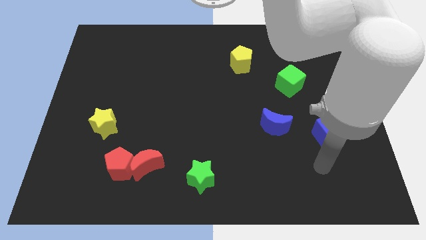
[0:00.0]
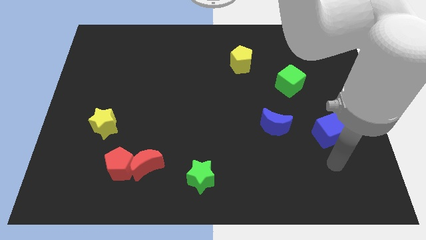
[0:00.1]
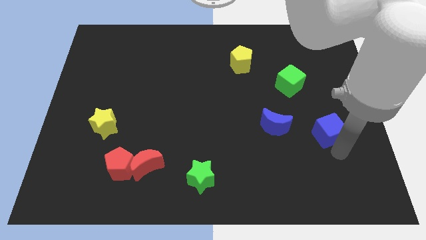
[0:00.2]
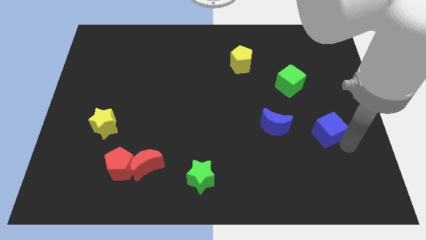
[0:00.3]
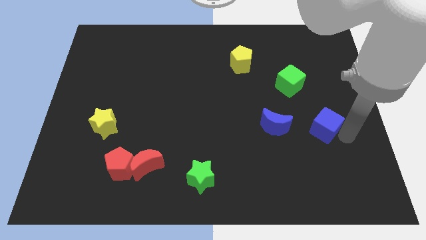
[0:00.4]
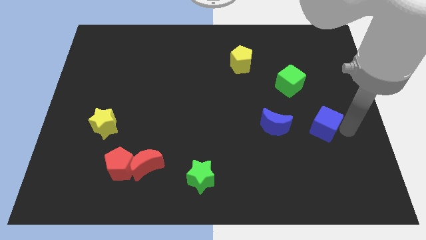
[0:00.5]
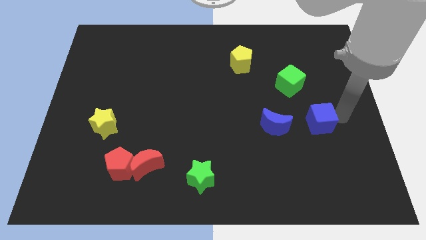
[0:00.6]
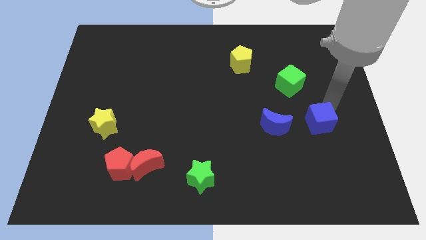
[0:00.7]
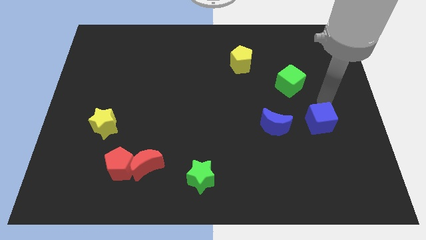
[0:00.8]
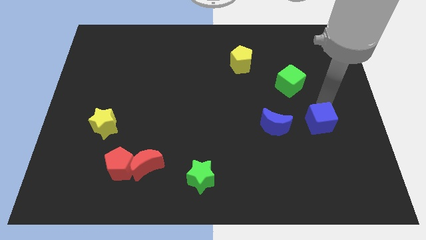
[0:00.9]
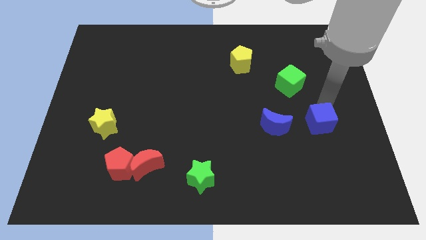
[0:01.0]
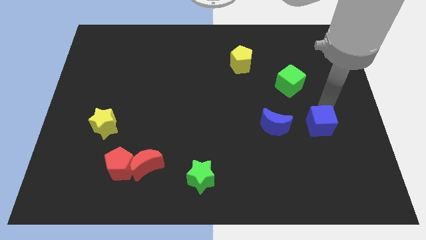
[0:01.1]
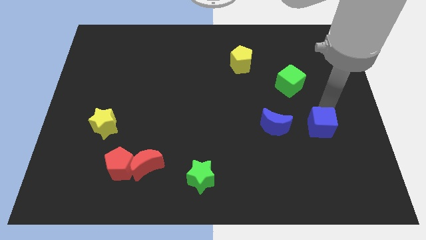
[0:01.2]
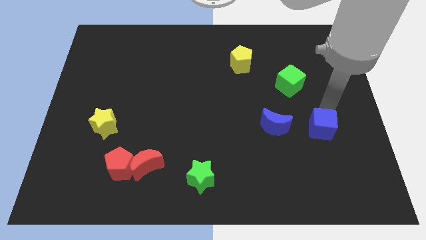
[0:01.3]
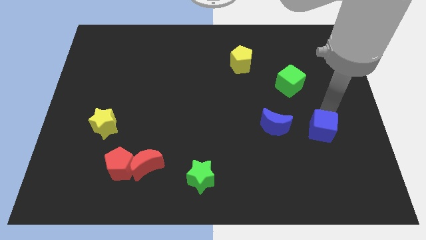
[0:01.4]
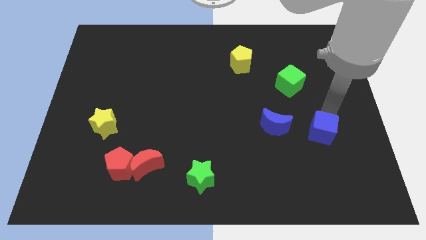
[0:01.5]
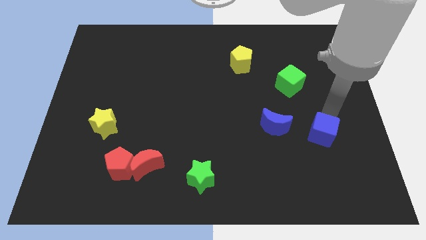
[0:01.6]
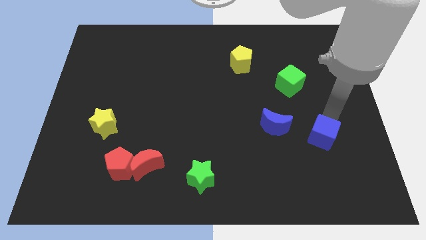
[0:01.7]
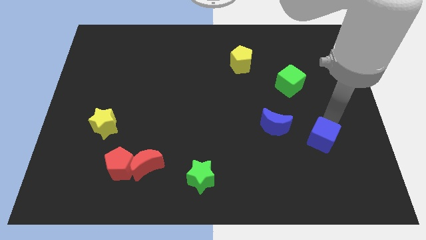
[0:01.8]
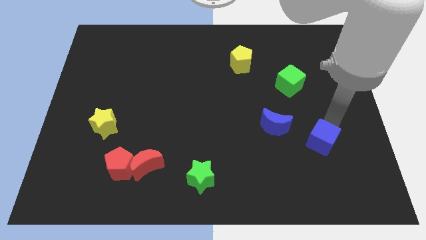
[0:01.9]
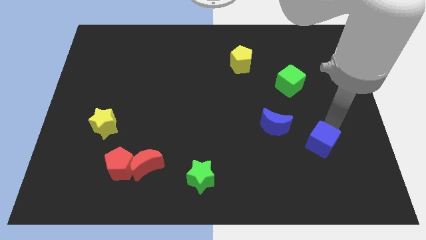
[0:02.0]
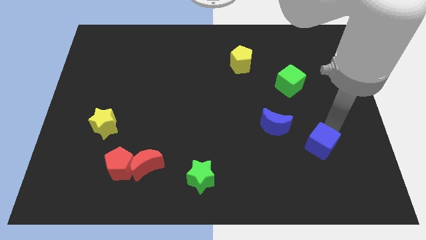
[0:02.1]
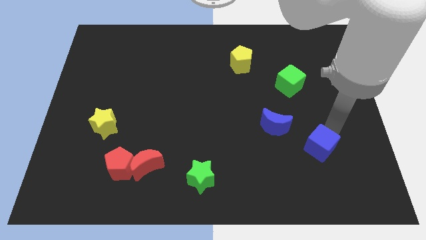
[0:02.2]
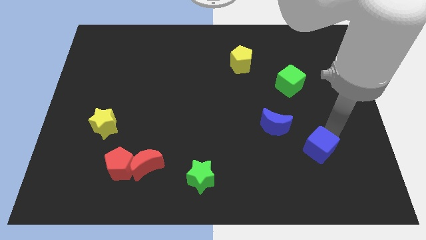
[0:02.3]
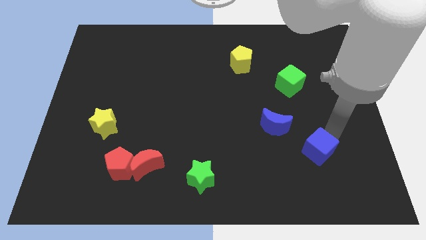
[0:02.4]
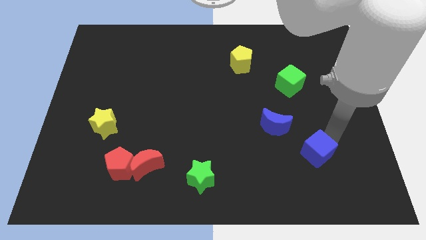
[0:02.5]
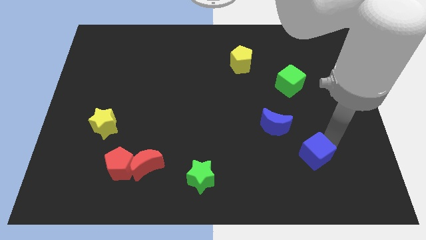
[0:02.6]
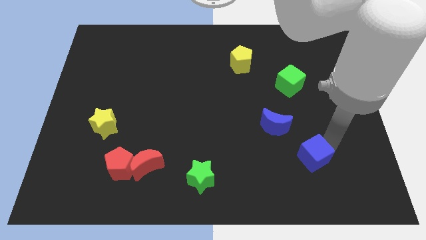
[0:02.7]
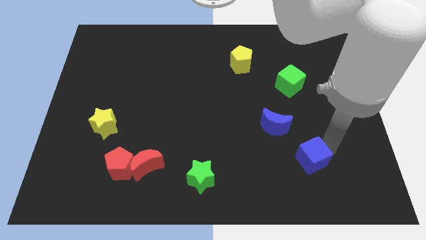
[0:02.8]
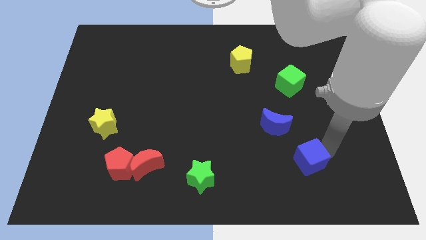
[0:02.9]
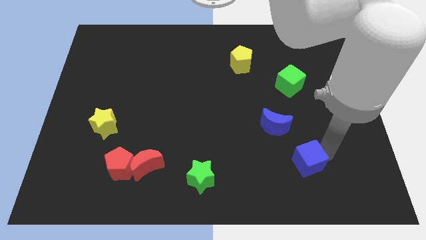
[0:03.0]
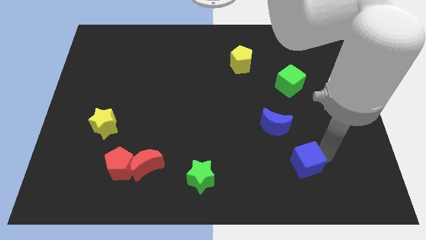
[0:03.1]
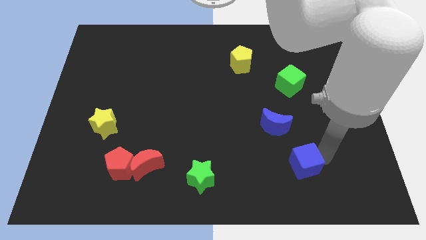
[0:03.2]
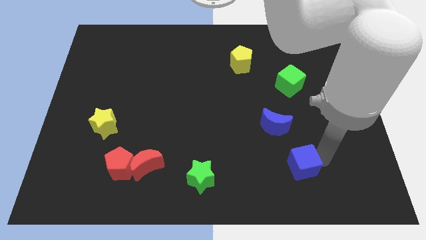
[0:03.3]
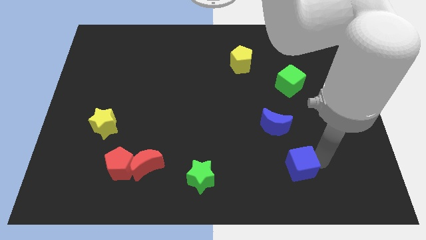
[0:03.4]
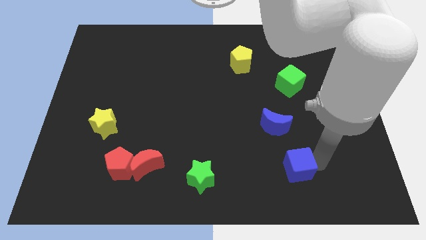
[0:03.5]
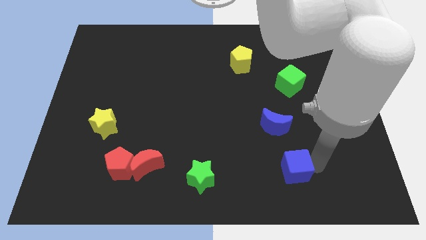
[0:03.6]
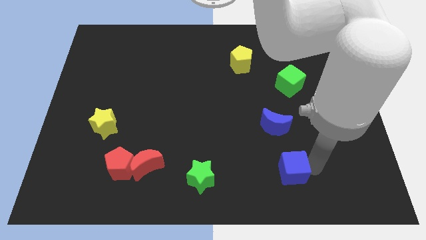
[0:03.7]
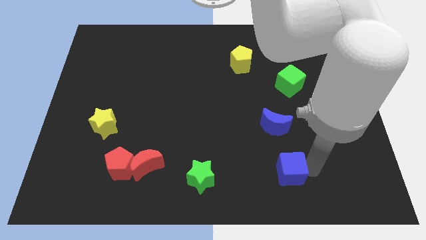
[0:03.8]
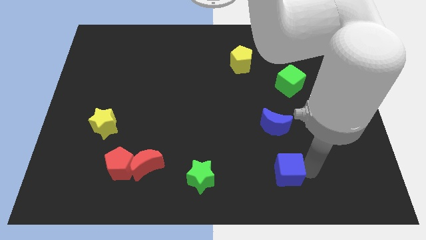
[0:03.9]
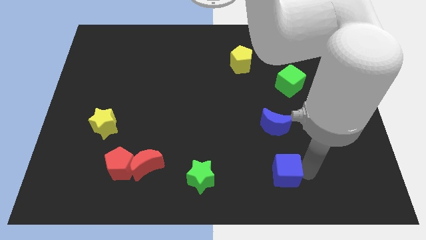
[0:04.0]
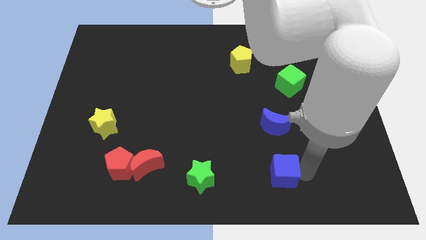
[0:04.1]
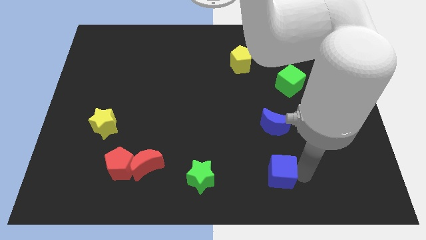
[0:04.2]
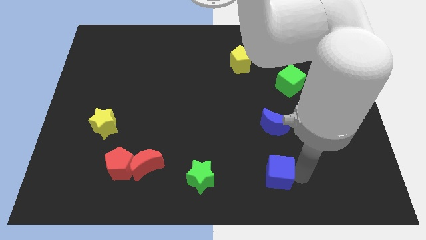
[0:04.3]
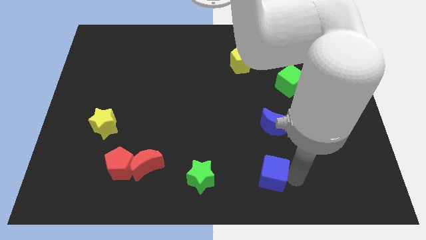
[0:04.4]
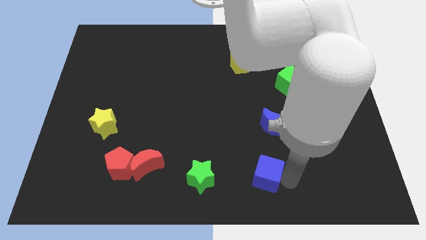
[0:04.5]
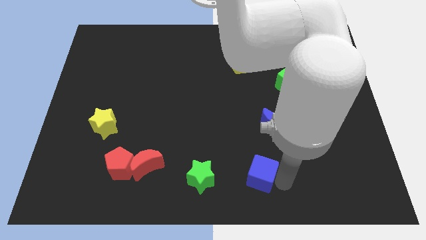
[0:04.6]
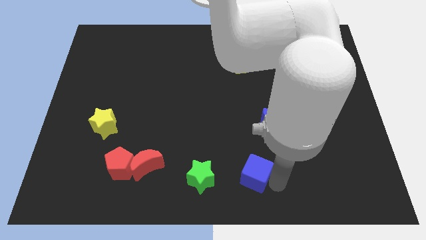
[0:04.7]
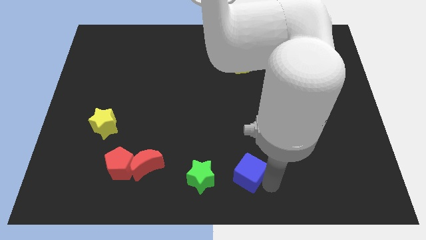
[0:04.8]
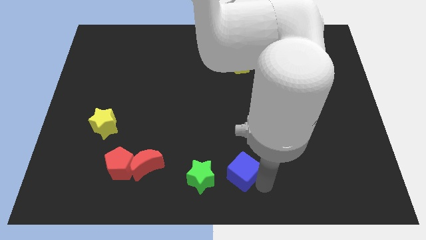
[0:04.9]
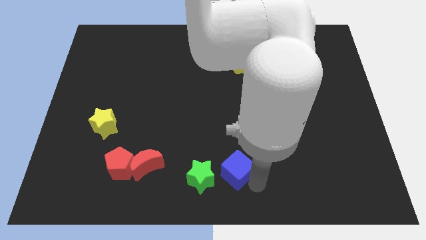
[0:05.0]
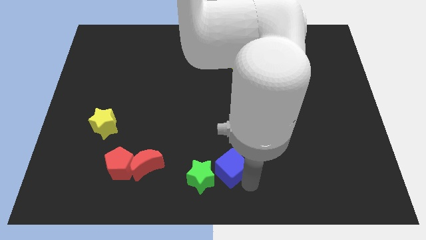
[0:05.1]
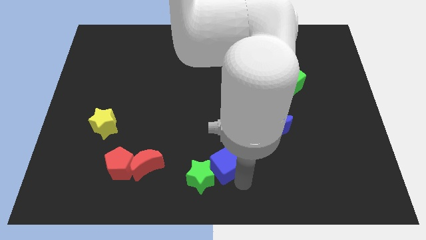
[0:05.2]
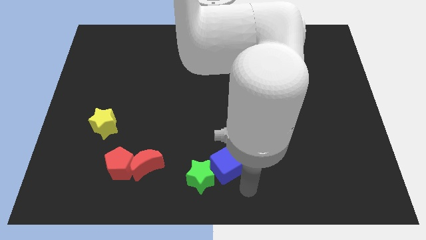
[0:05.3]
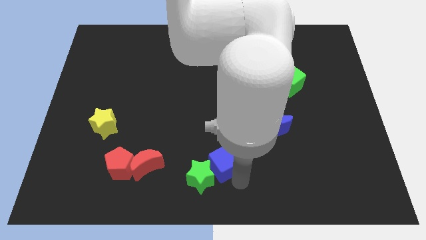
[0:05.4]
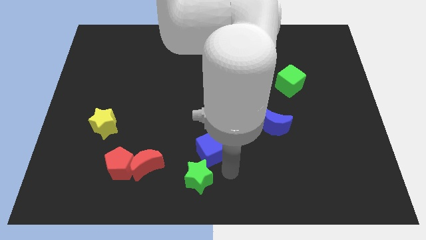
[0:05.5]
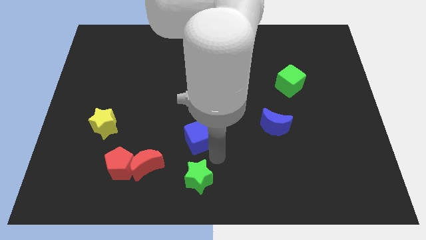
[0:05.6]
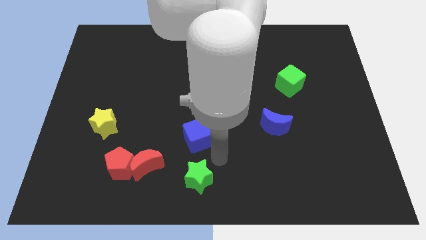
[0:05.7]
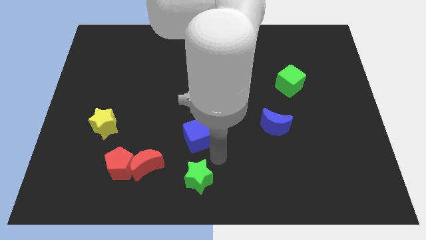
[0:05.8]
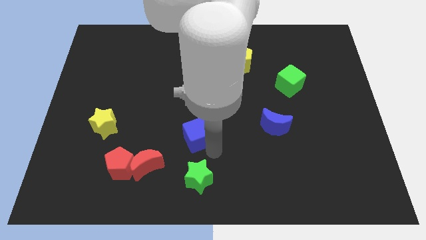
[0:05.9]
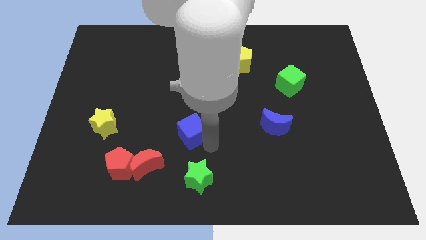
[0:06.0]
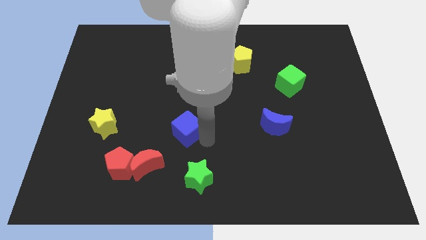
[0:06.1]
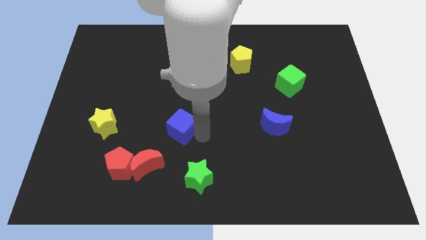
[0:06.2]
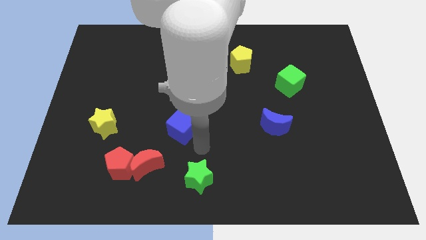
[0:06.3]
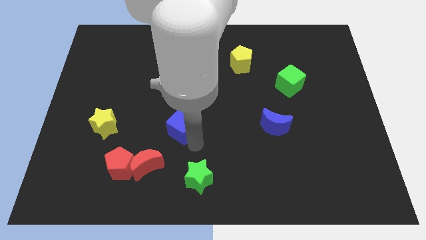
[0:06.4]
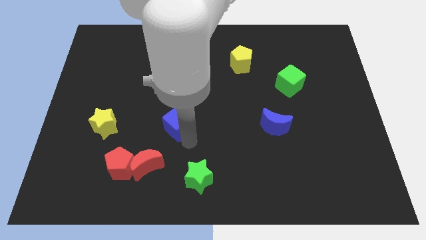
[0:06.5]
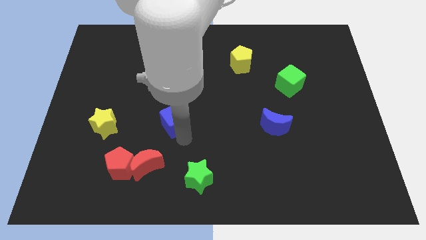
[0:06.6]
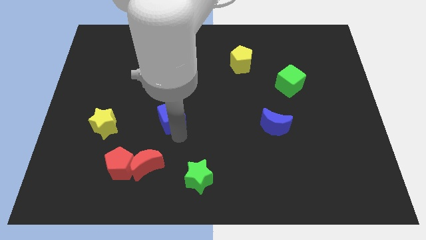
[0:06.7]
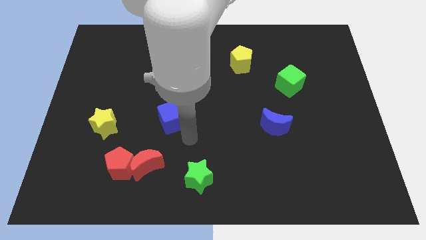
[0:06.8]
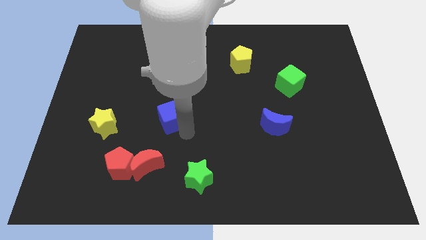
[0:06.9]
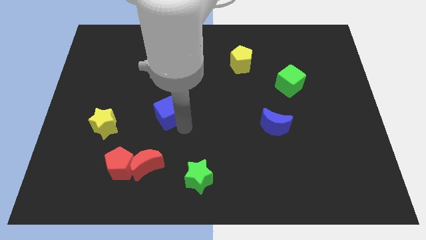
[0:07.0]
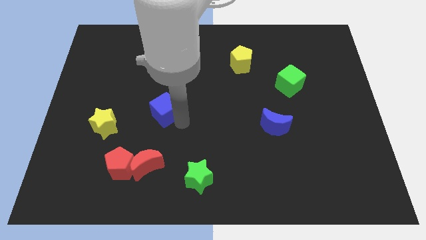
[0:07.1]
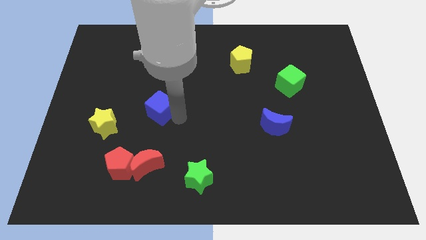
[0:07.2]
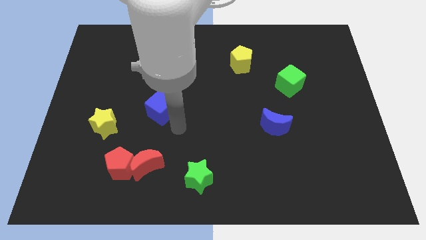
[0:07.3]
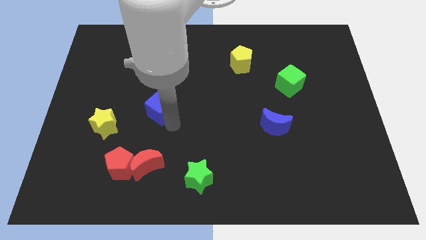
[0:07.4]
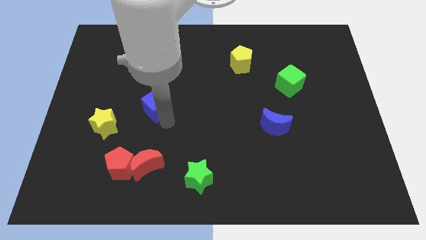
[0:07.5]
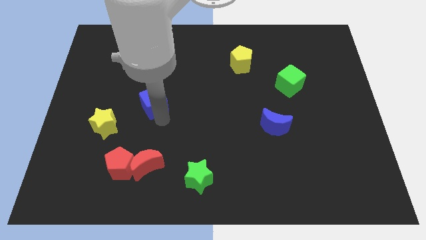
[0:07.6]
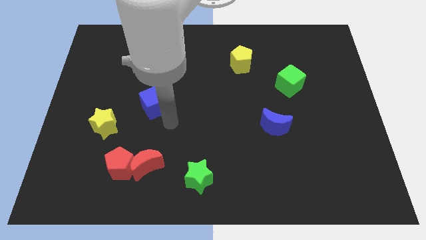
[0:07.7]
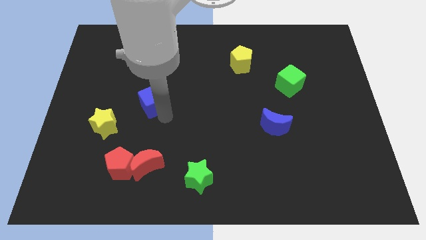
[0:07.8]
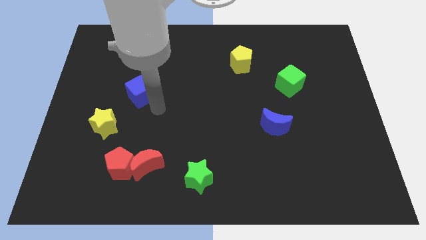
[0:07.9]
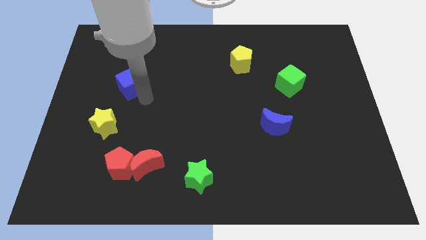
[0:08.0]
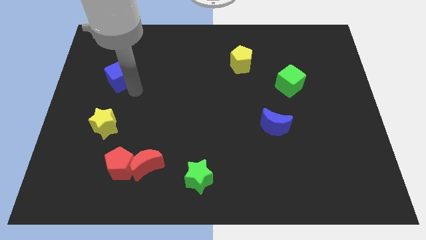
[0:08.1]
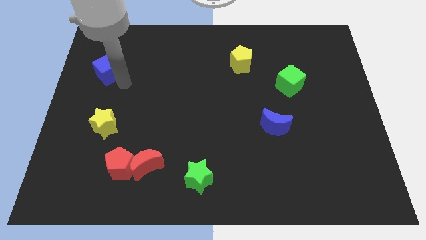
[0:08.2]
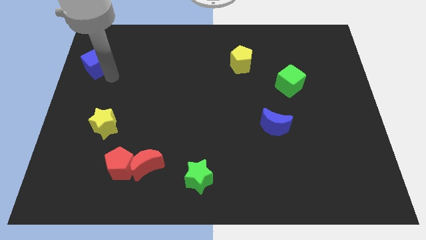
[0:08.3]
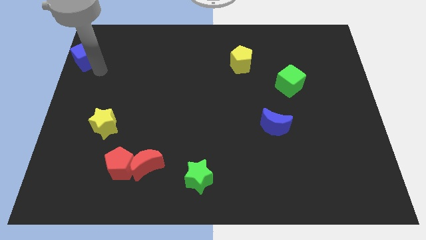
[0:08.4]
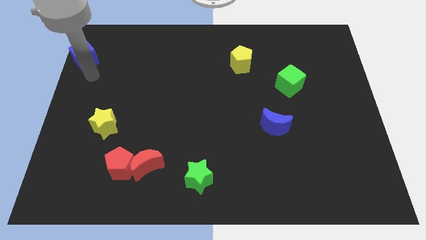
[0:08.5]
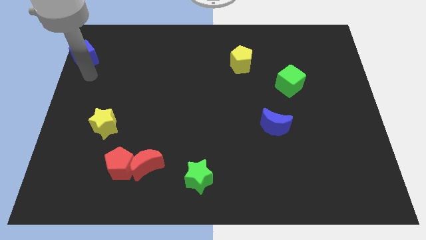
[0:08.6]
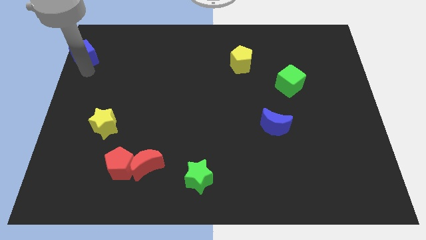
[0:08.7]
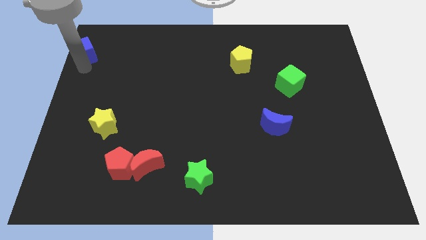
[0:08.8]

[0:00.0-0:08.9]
push the blue cube to the top left of the board
